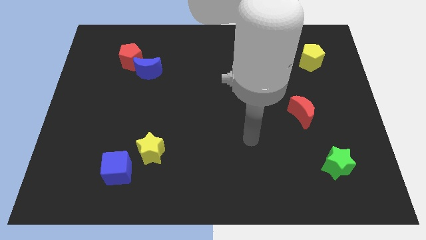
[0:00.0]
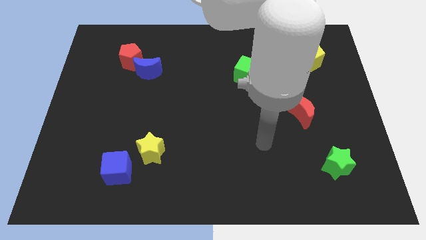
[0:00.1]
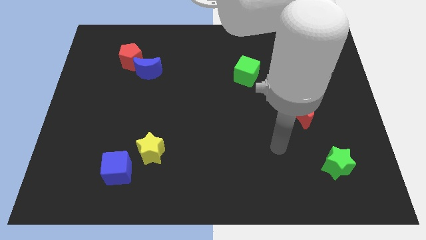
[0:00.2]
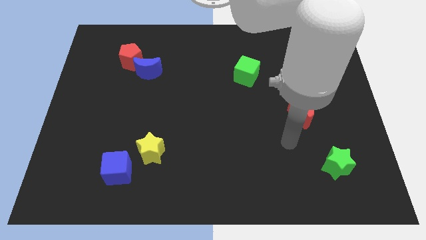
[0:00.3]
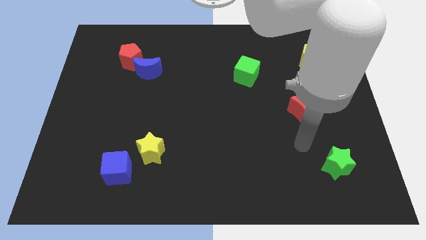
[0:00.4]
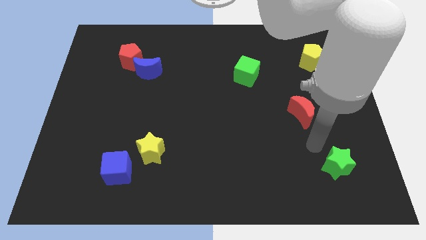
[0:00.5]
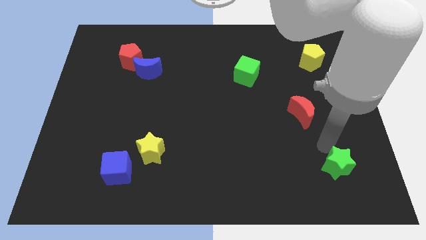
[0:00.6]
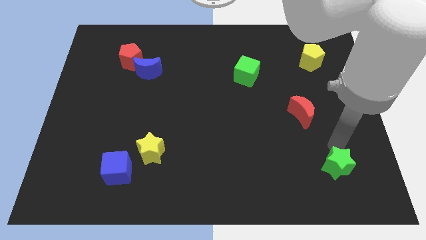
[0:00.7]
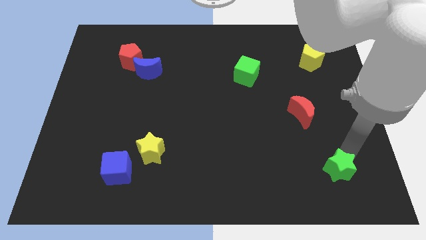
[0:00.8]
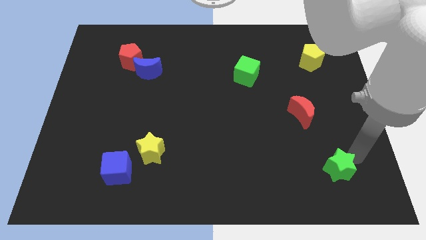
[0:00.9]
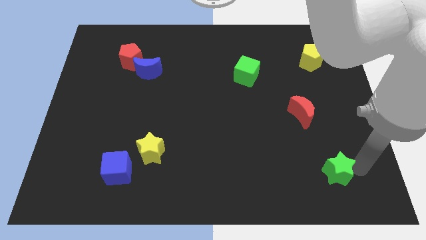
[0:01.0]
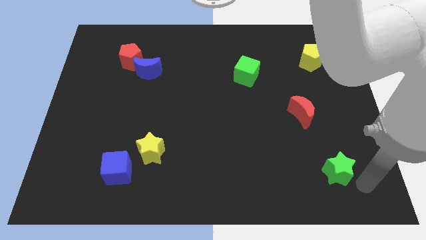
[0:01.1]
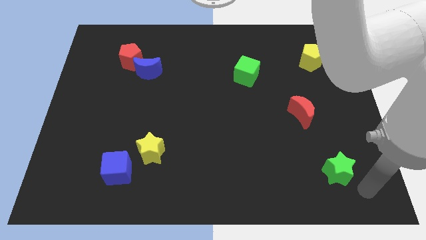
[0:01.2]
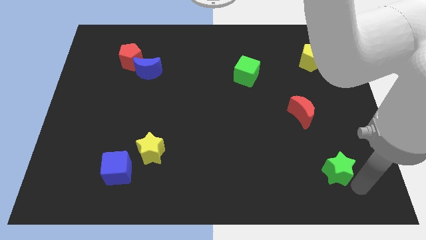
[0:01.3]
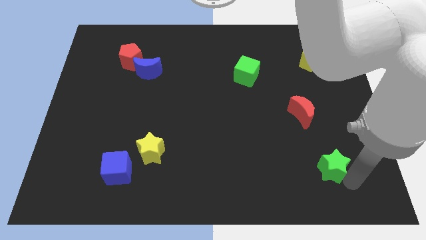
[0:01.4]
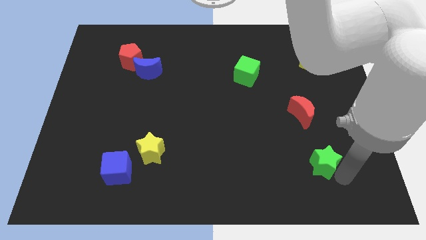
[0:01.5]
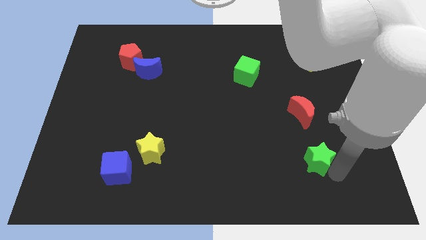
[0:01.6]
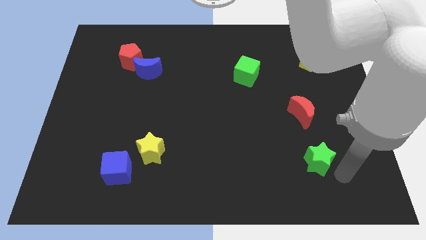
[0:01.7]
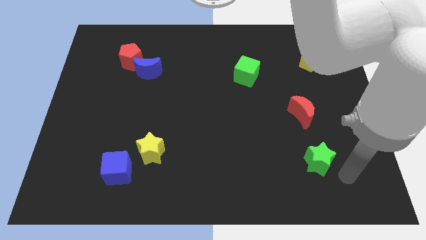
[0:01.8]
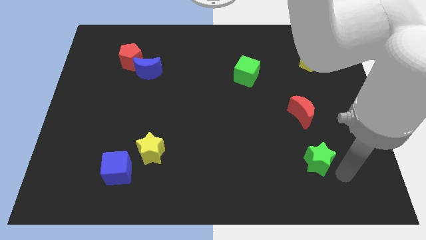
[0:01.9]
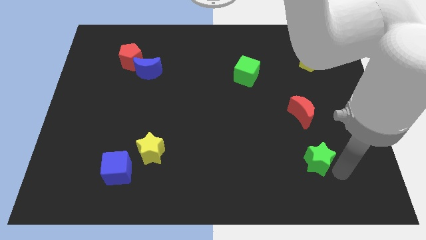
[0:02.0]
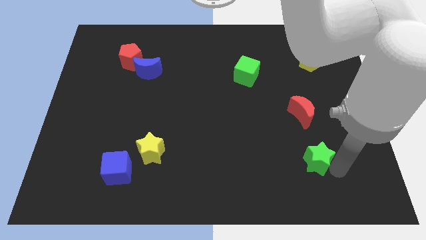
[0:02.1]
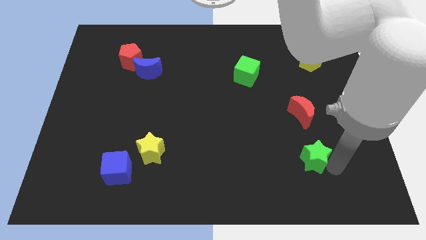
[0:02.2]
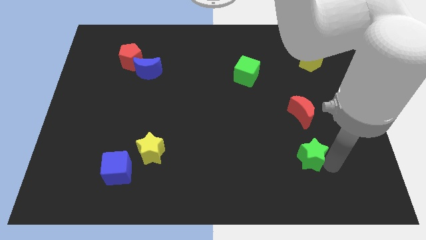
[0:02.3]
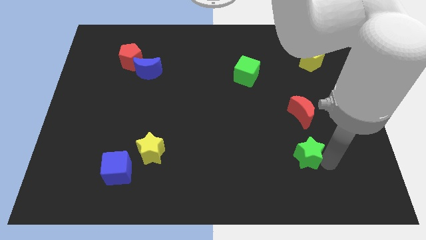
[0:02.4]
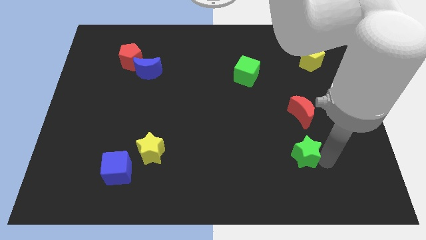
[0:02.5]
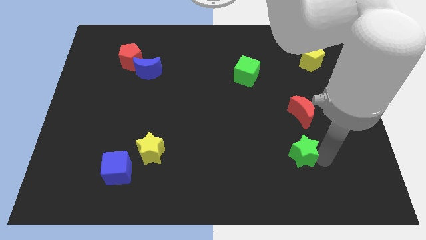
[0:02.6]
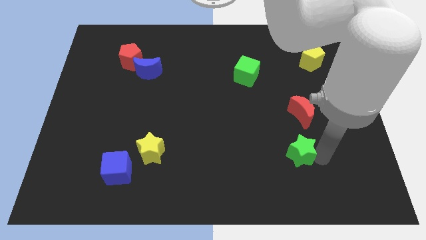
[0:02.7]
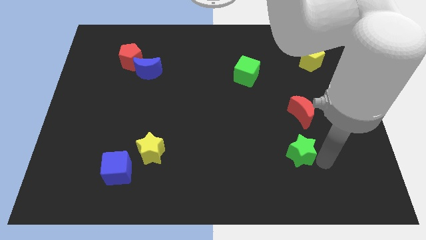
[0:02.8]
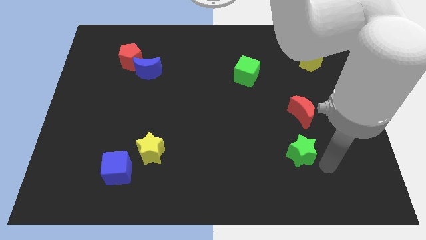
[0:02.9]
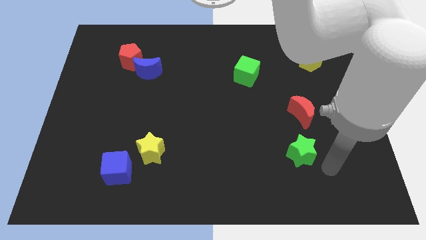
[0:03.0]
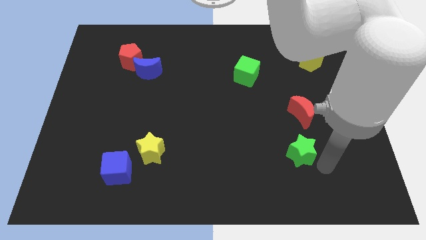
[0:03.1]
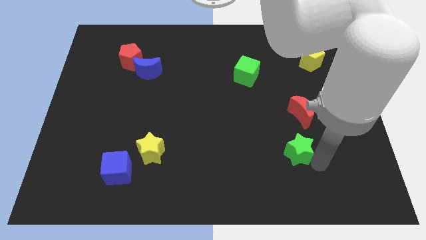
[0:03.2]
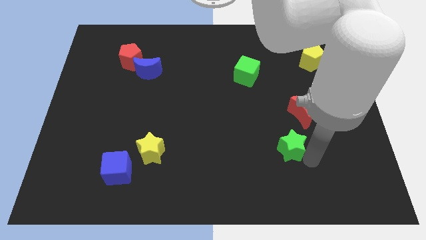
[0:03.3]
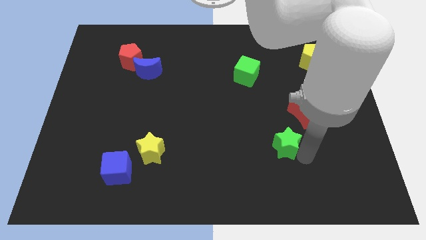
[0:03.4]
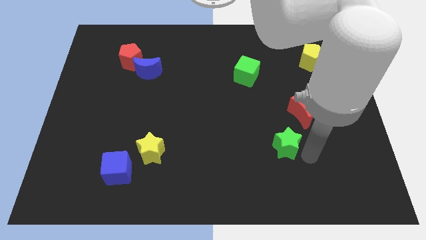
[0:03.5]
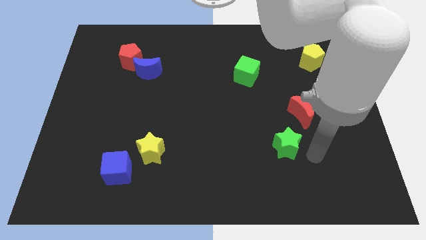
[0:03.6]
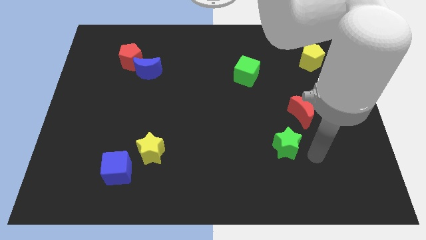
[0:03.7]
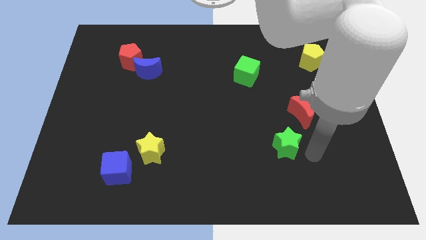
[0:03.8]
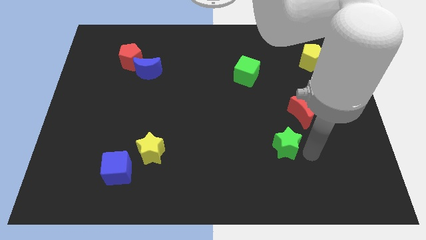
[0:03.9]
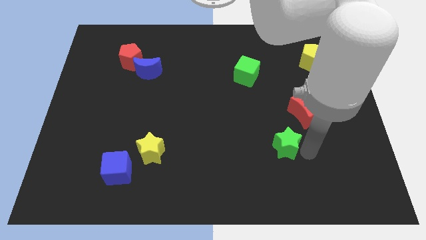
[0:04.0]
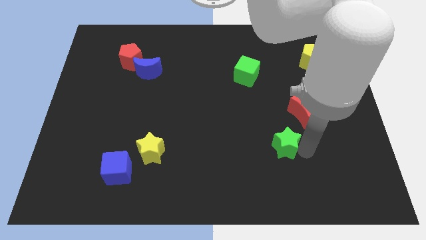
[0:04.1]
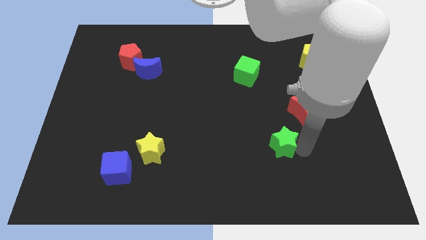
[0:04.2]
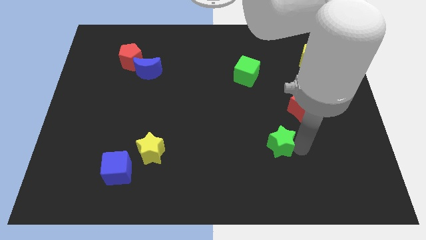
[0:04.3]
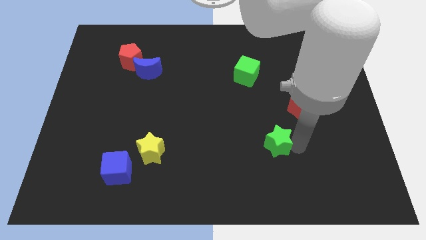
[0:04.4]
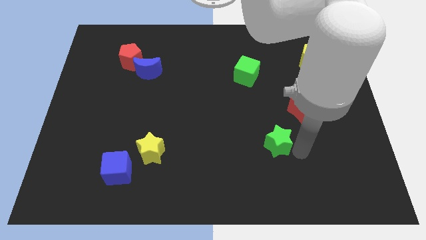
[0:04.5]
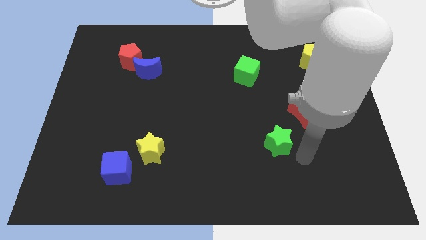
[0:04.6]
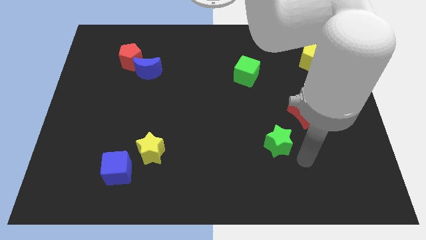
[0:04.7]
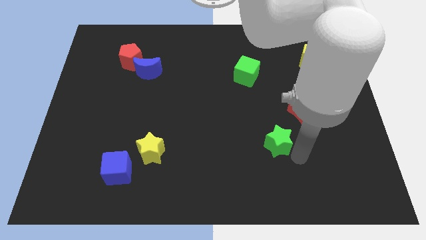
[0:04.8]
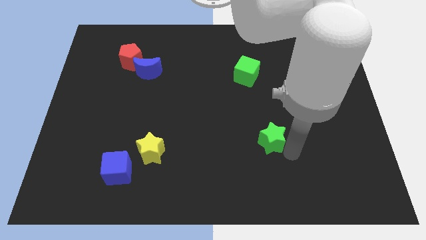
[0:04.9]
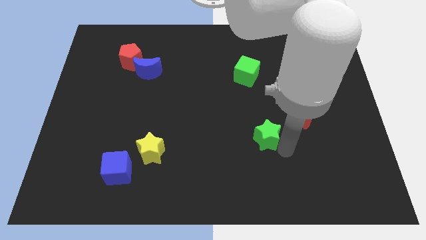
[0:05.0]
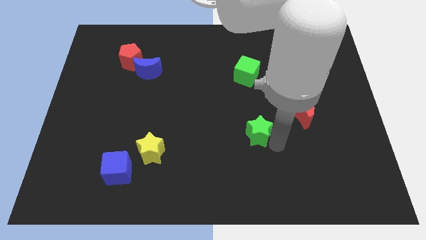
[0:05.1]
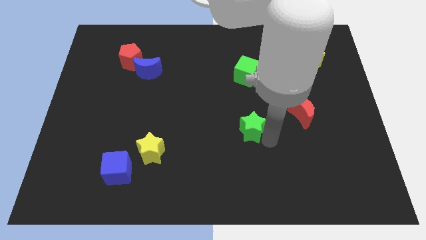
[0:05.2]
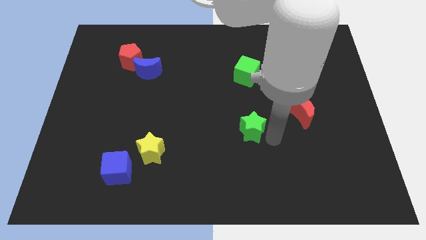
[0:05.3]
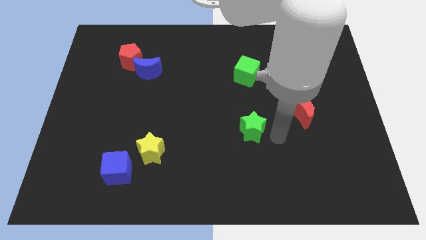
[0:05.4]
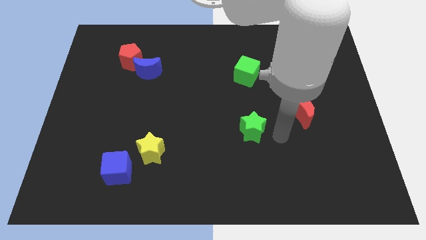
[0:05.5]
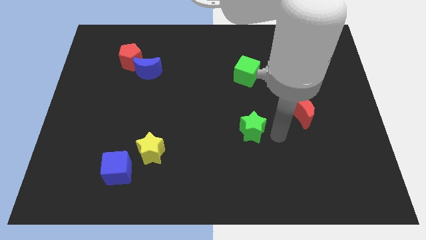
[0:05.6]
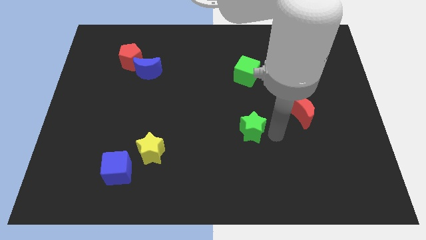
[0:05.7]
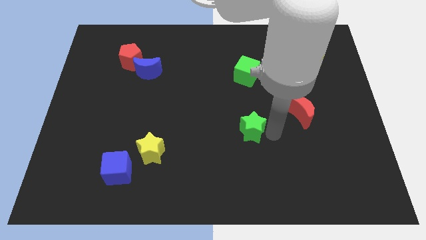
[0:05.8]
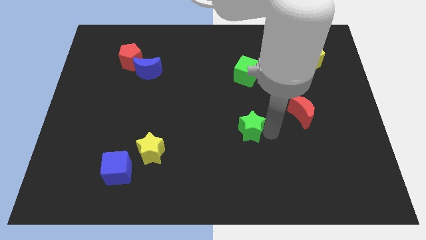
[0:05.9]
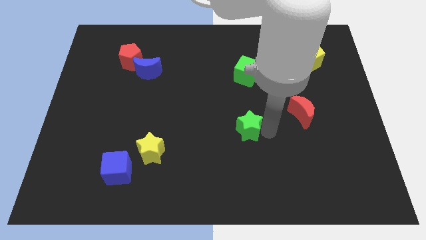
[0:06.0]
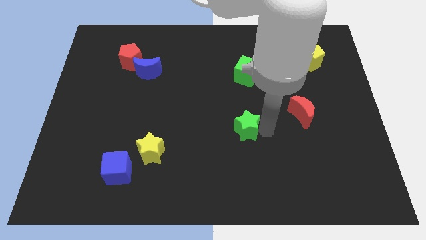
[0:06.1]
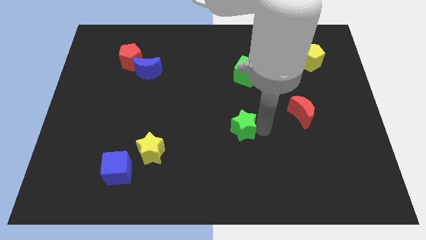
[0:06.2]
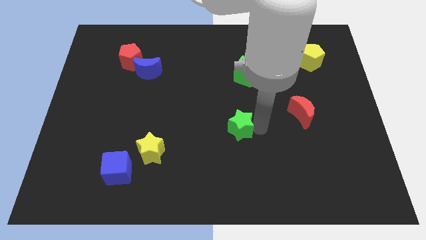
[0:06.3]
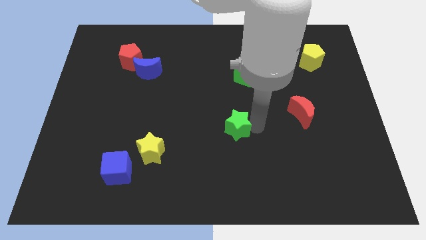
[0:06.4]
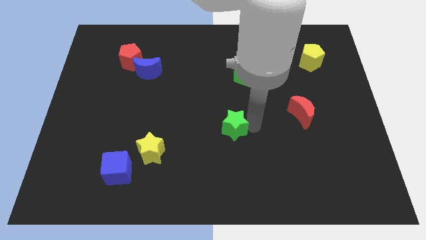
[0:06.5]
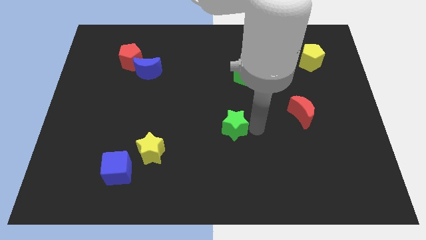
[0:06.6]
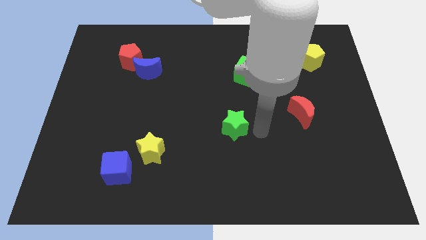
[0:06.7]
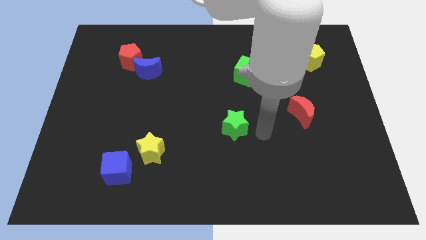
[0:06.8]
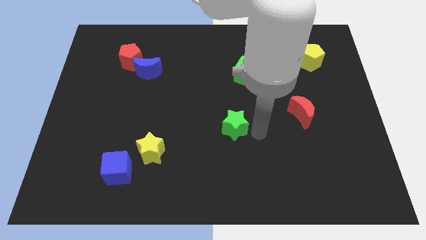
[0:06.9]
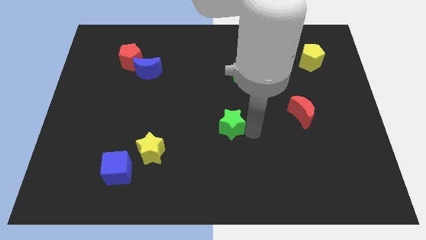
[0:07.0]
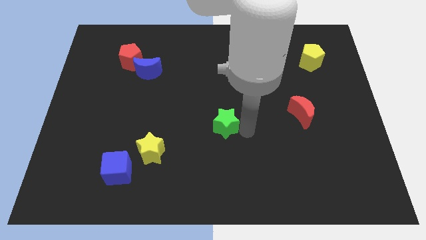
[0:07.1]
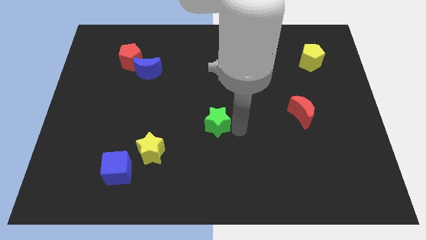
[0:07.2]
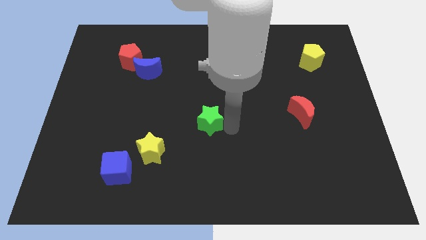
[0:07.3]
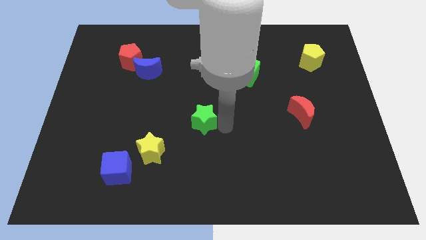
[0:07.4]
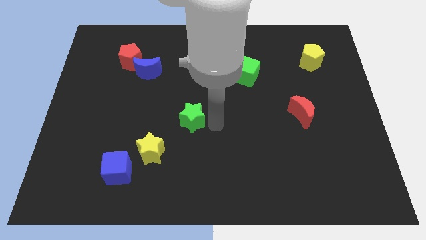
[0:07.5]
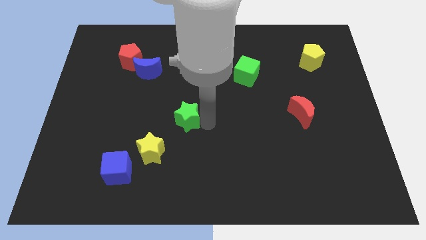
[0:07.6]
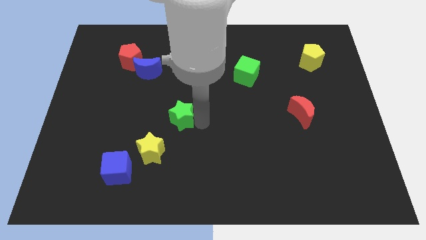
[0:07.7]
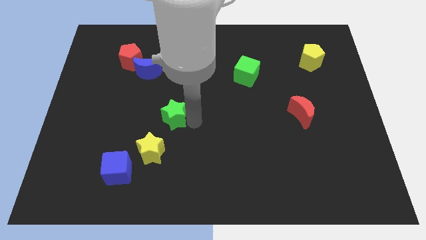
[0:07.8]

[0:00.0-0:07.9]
move the green star to the top of the yellow star
